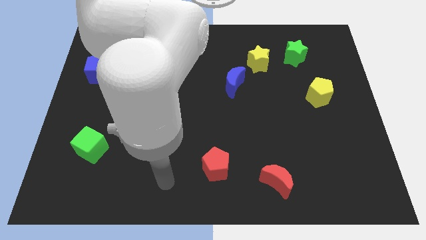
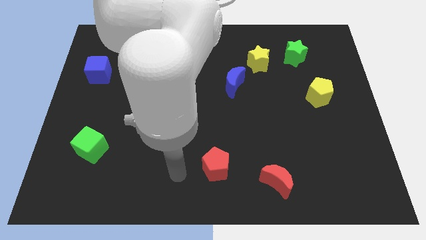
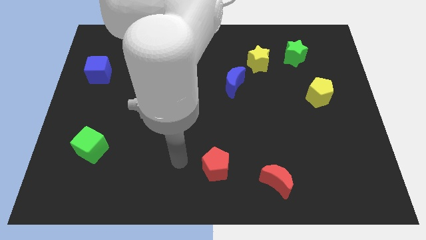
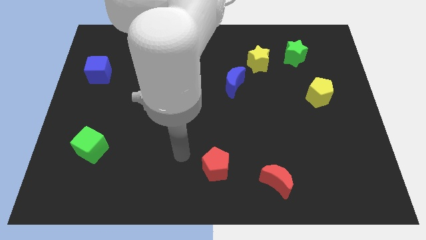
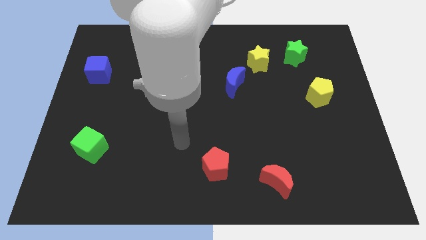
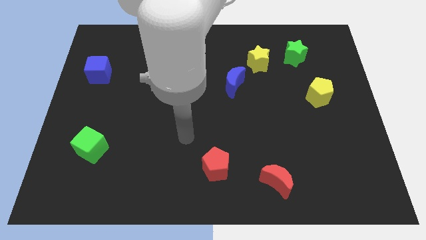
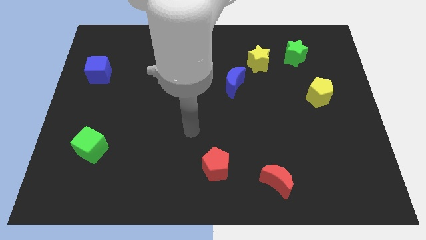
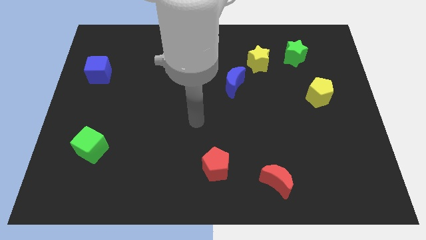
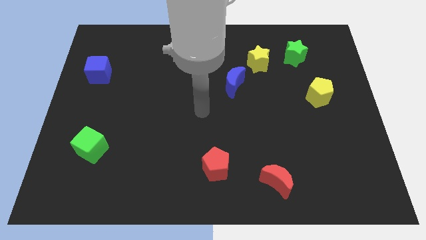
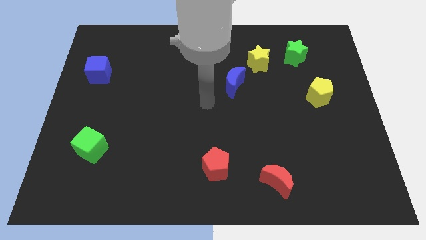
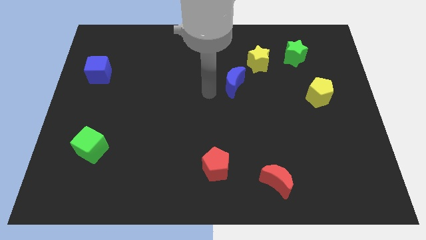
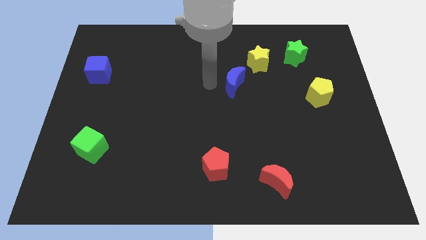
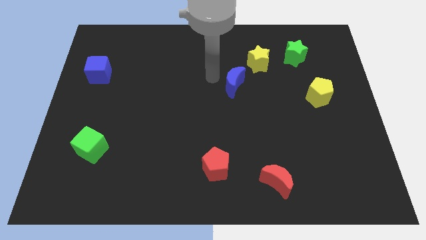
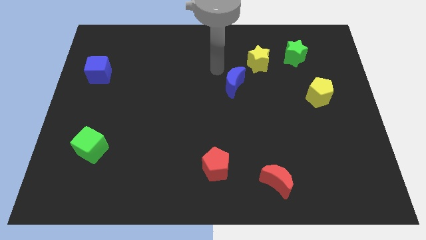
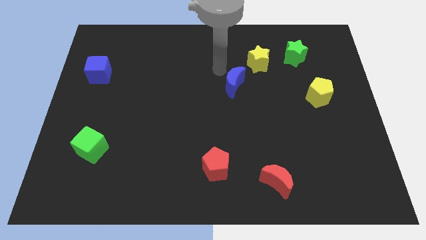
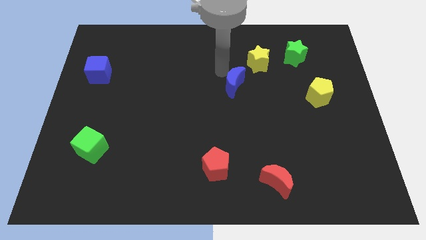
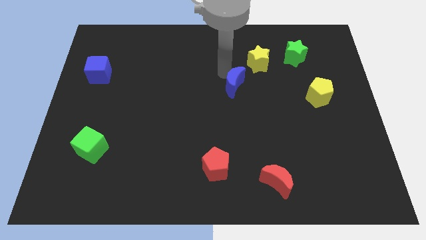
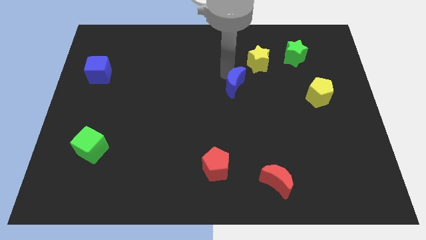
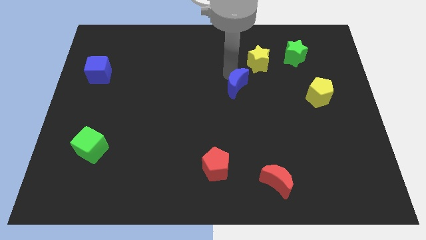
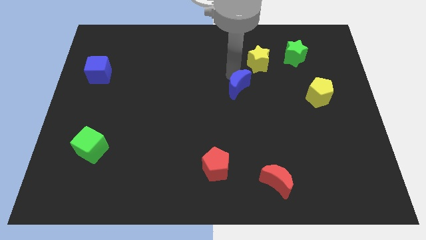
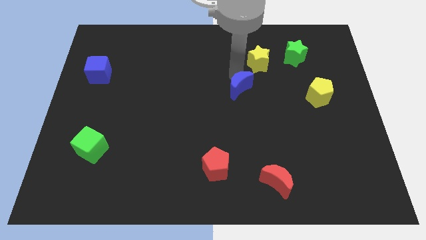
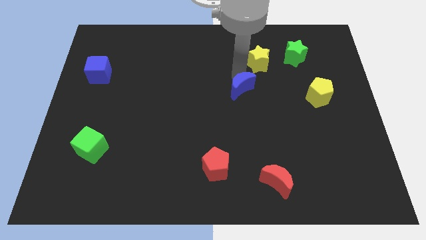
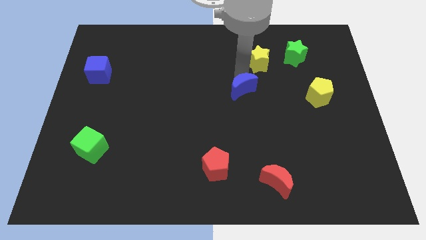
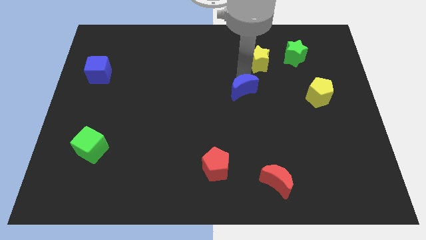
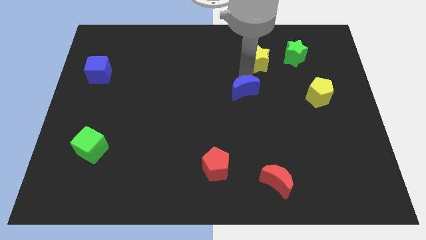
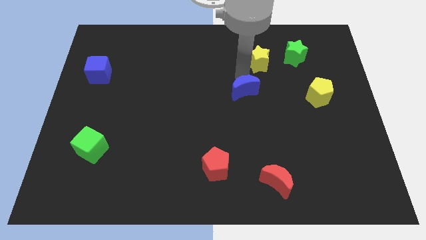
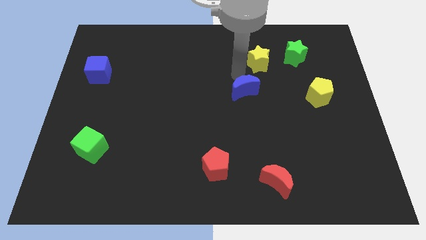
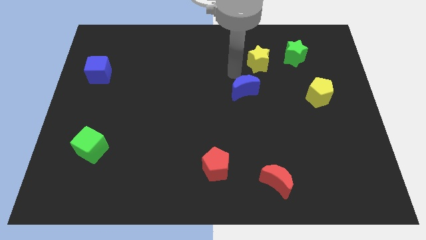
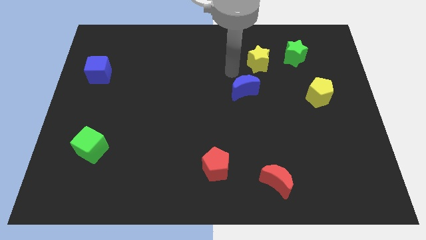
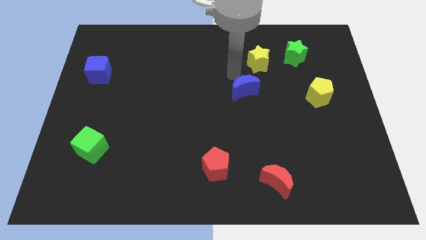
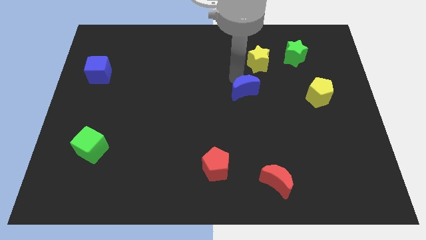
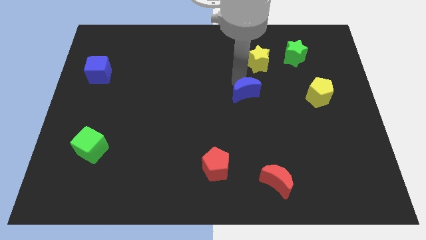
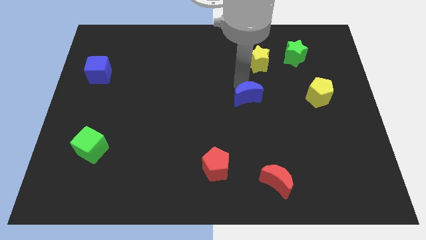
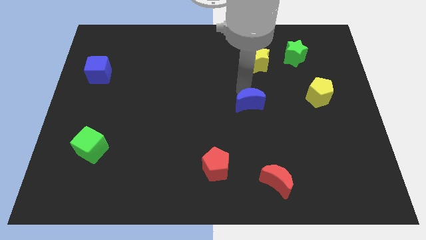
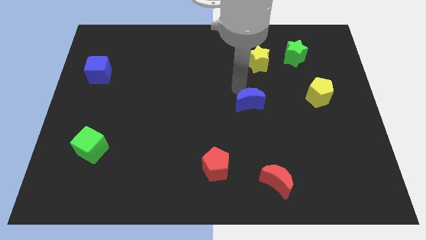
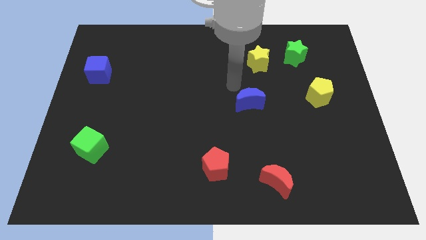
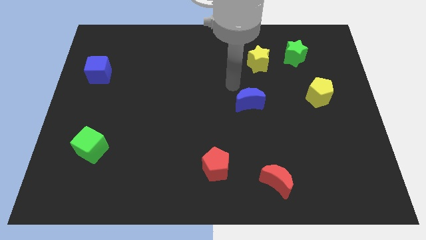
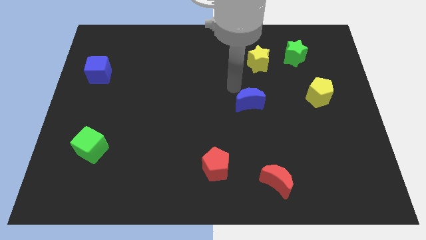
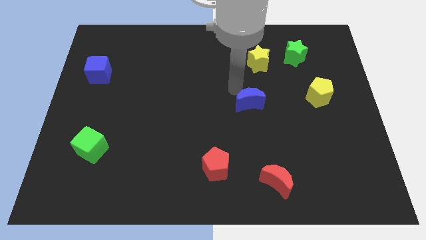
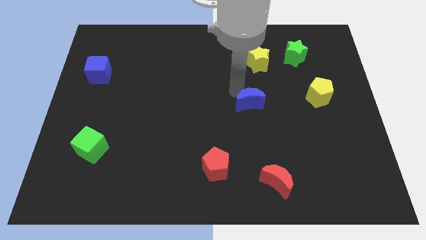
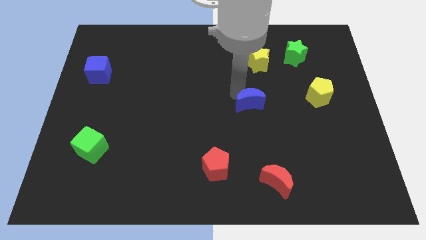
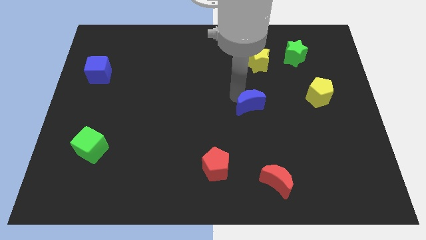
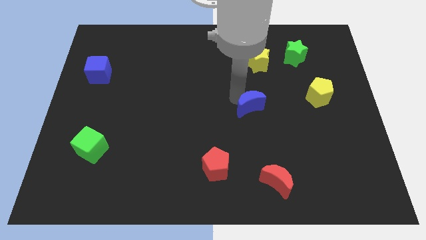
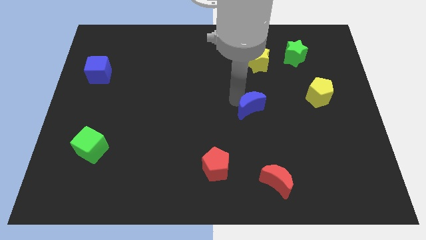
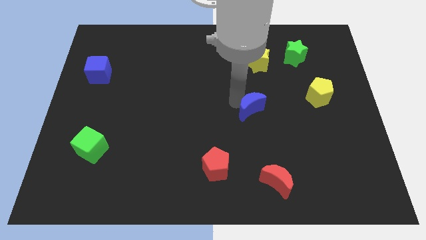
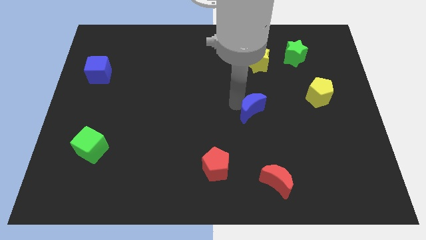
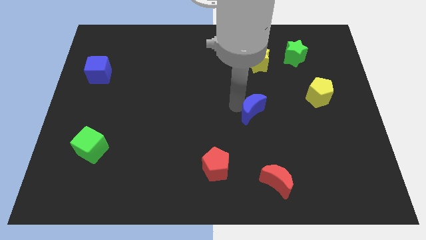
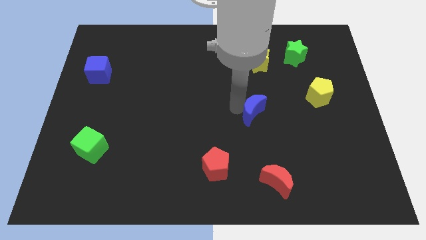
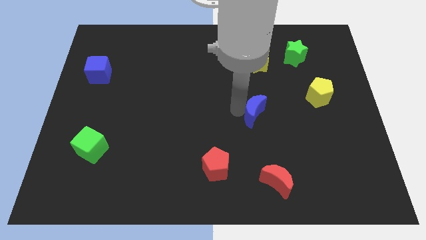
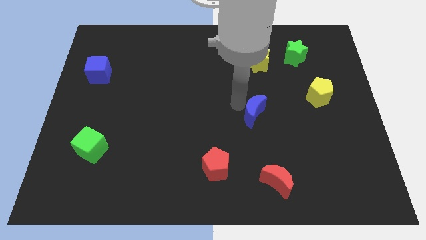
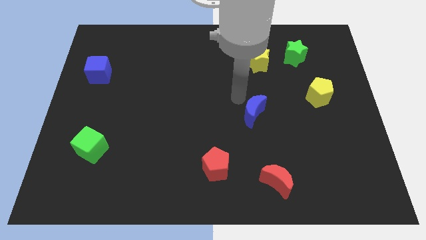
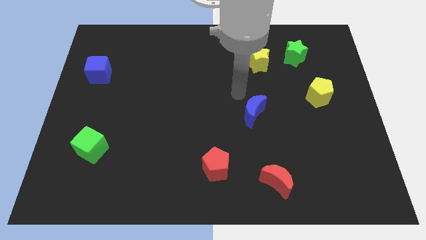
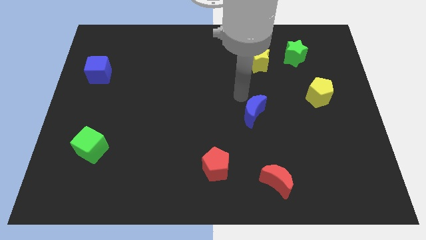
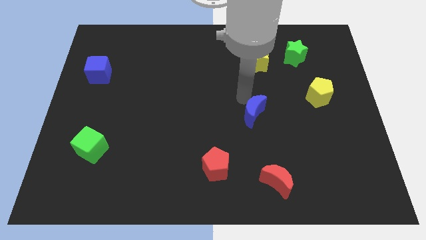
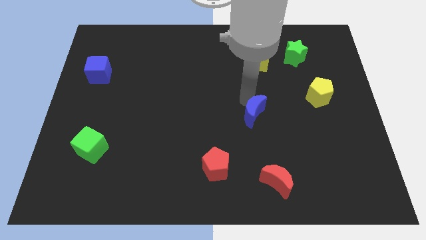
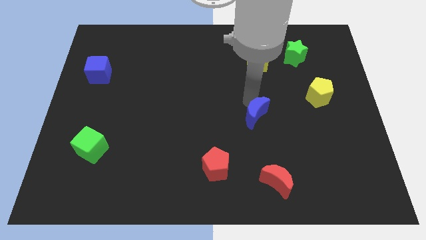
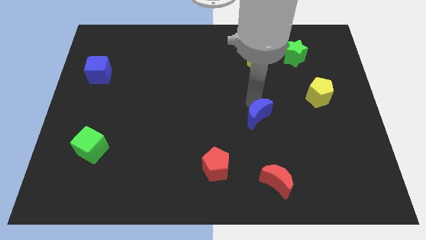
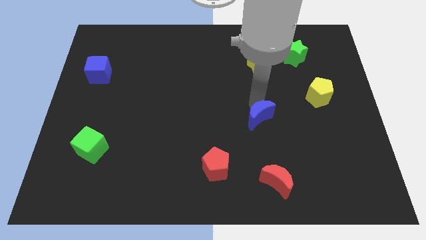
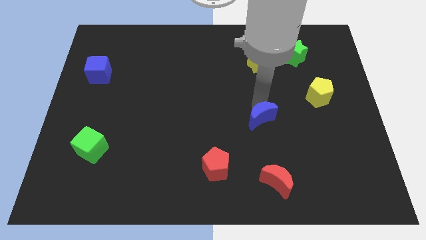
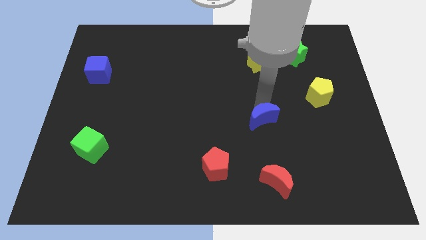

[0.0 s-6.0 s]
push the blue moon to the top side of the red moon

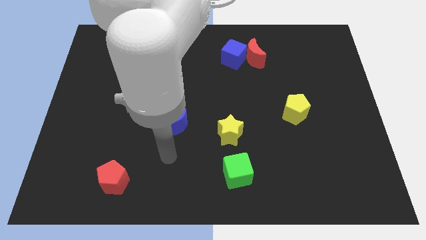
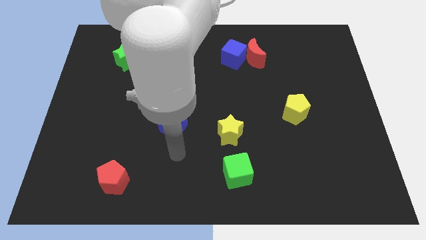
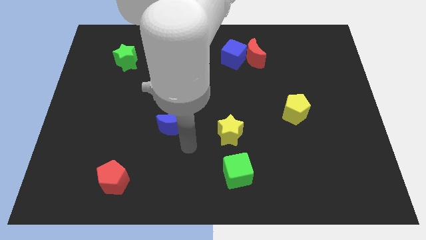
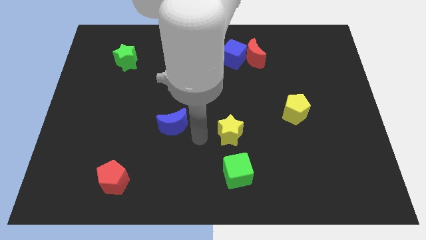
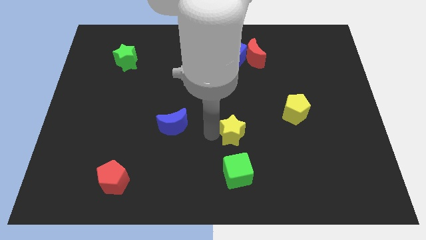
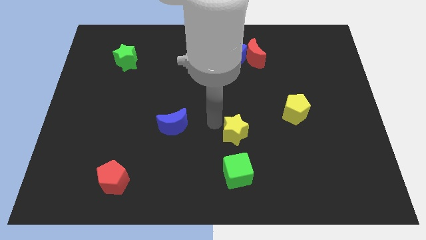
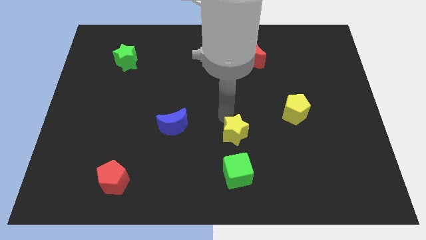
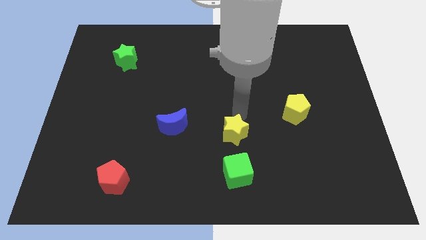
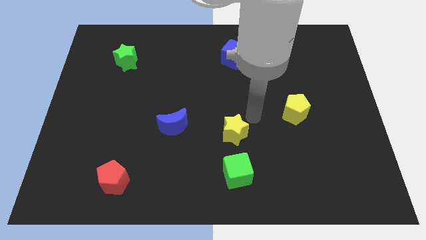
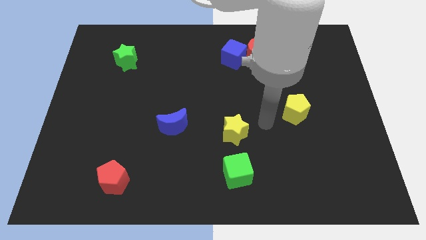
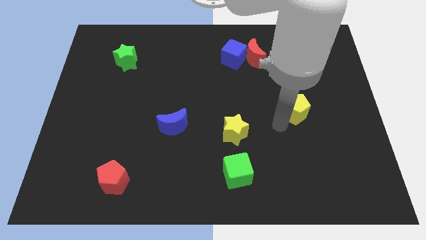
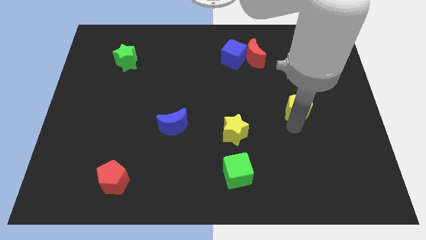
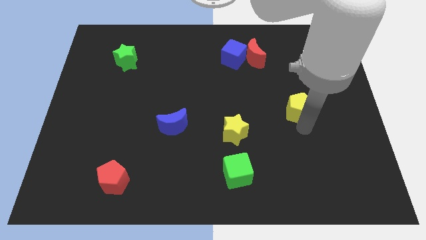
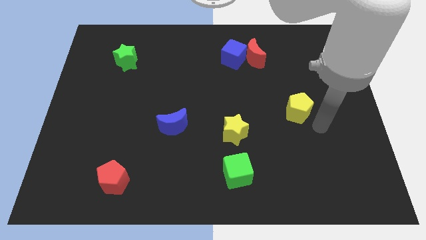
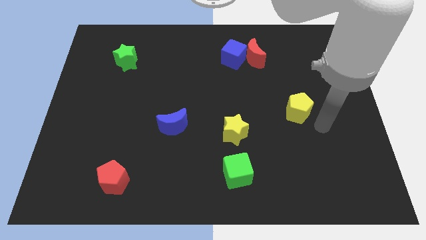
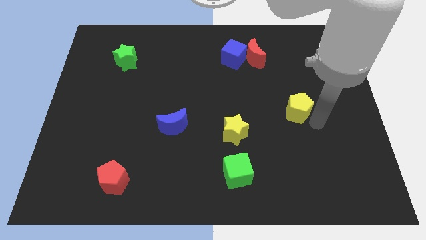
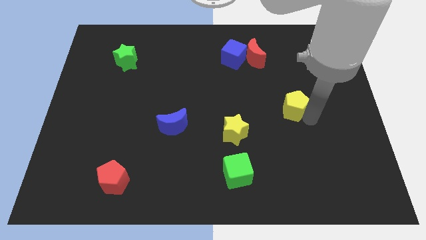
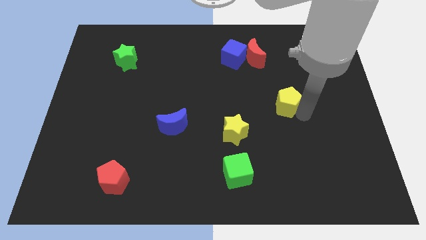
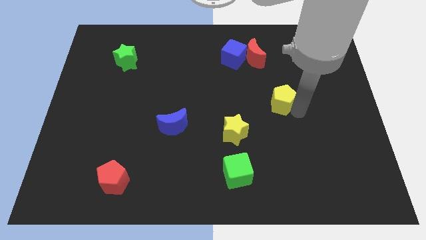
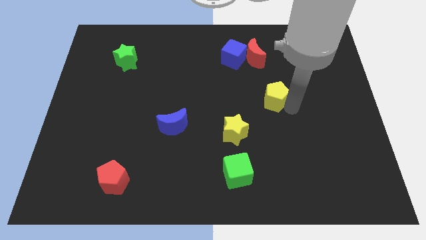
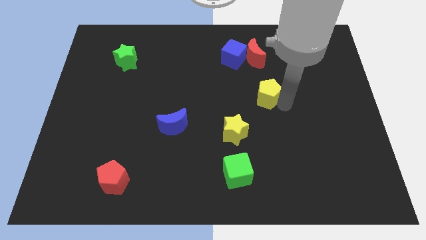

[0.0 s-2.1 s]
put the yellow pentagon below the red moon
